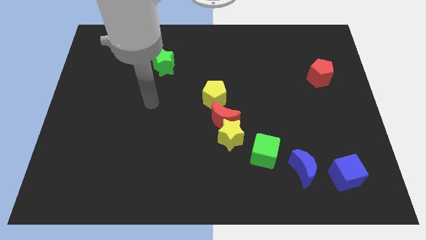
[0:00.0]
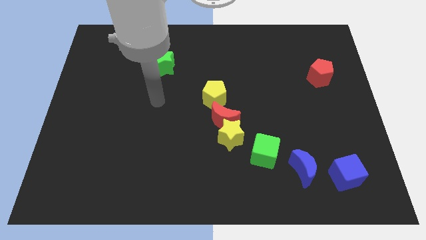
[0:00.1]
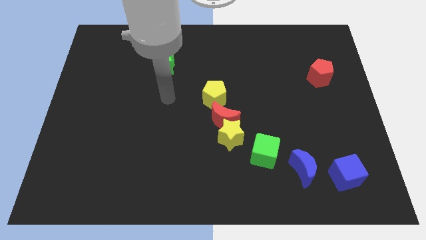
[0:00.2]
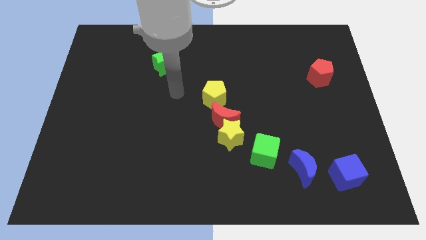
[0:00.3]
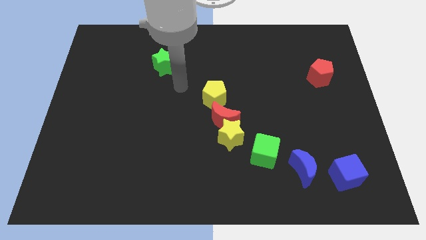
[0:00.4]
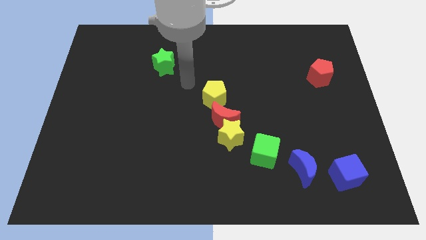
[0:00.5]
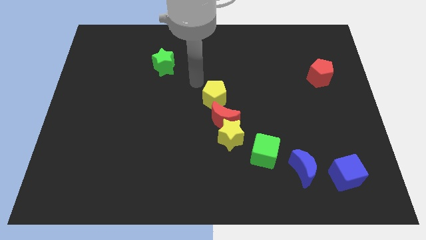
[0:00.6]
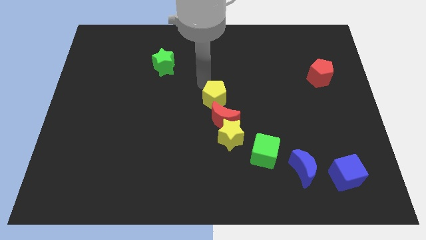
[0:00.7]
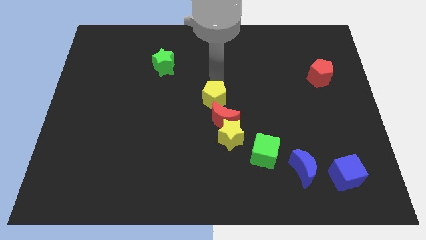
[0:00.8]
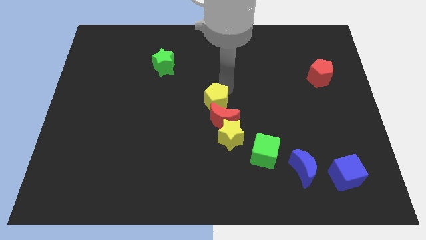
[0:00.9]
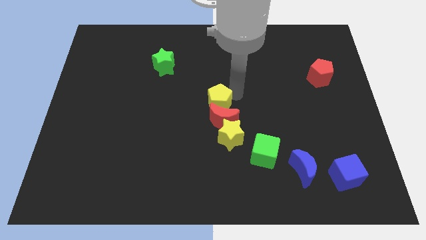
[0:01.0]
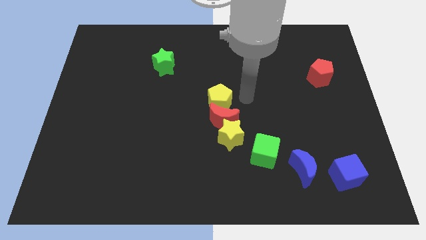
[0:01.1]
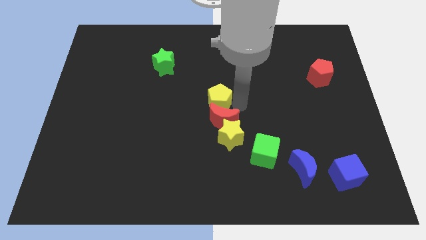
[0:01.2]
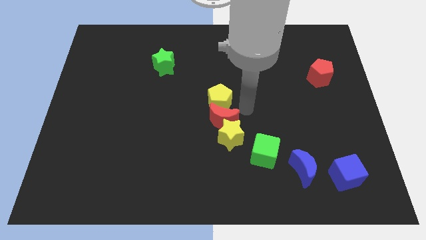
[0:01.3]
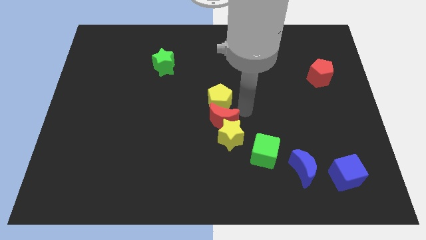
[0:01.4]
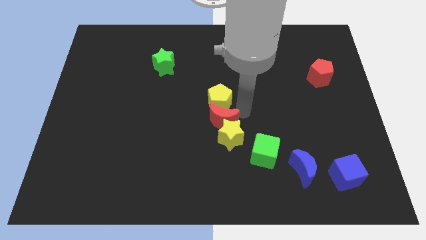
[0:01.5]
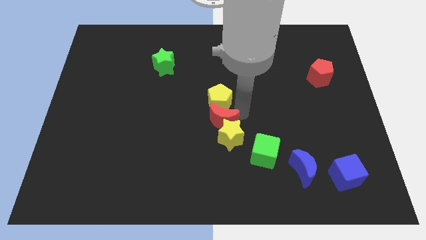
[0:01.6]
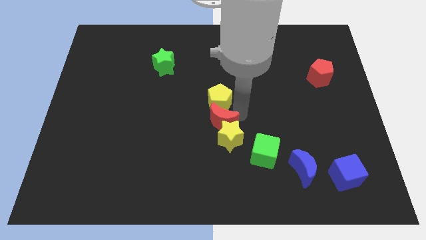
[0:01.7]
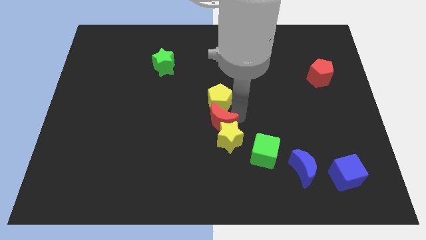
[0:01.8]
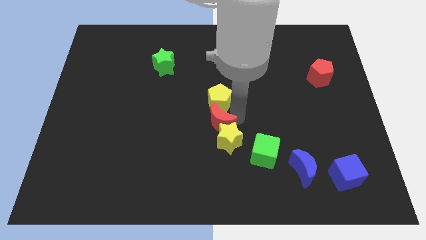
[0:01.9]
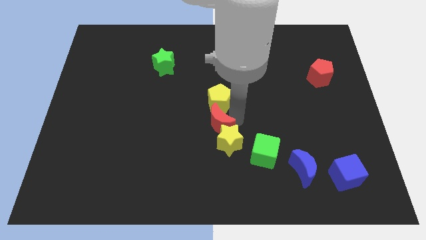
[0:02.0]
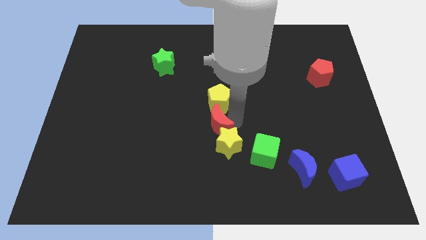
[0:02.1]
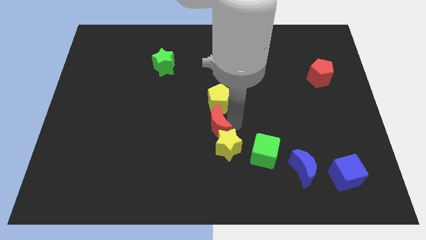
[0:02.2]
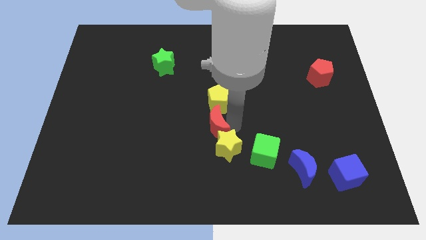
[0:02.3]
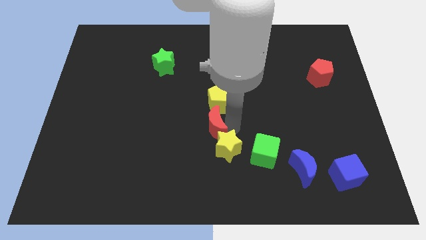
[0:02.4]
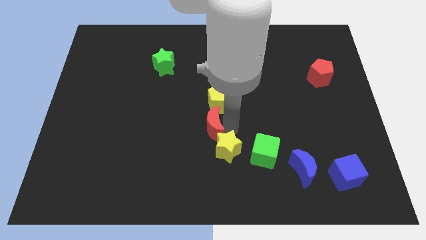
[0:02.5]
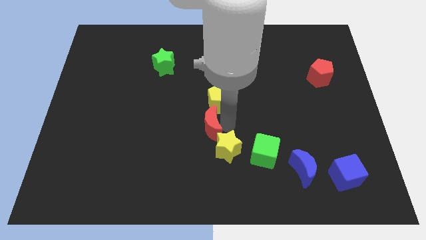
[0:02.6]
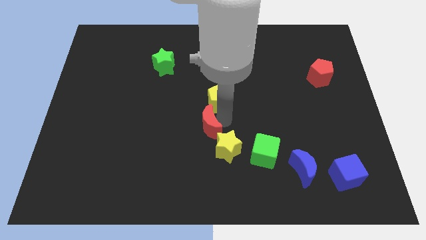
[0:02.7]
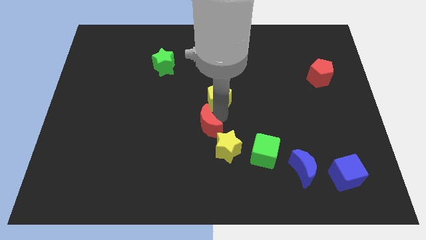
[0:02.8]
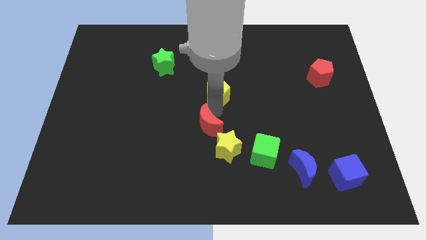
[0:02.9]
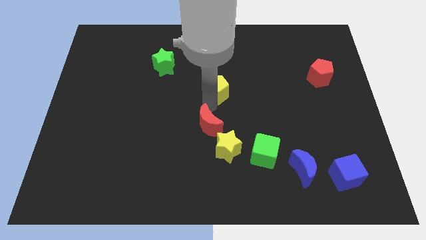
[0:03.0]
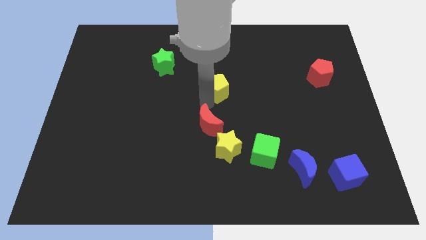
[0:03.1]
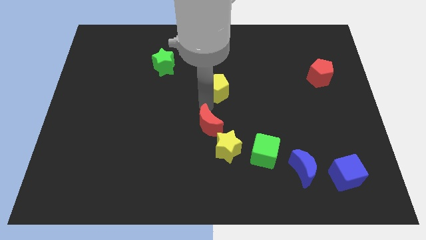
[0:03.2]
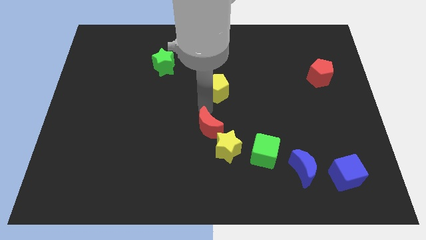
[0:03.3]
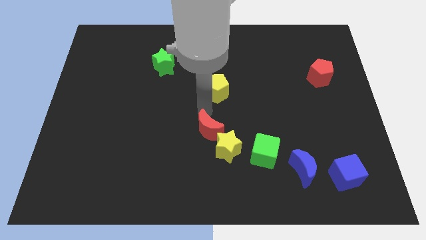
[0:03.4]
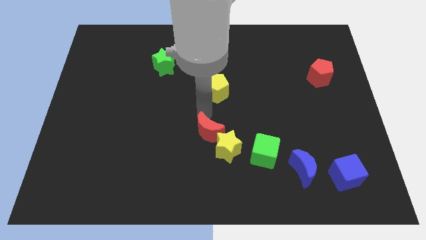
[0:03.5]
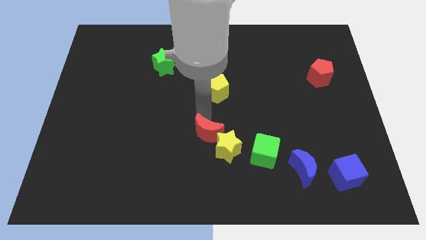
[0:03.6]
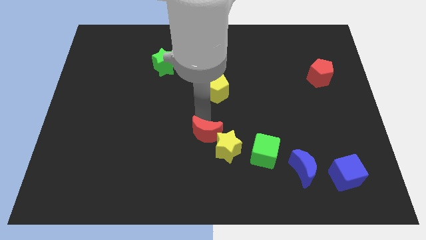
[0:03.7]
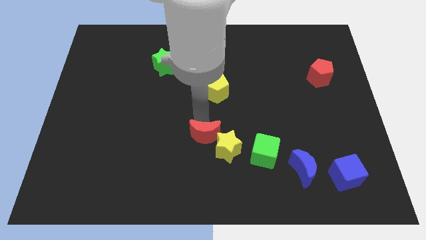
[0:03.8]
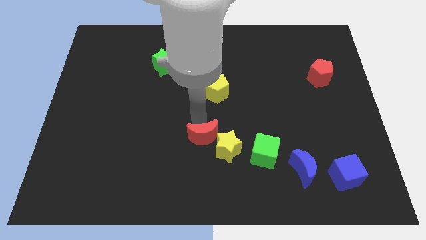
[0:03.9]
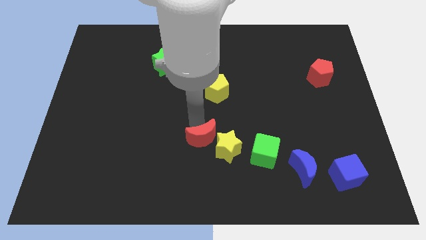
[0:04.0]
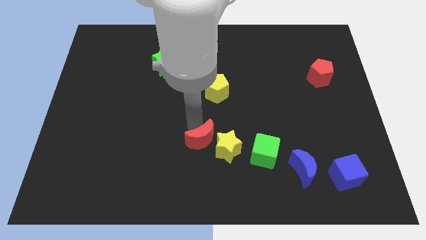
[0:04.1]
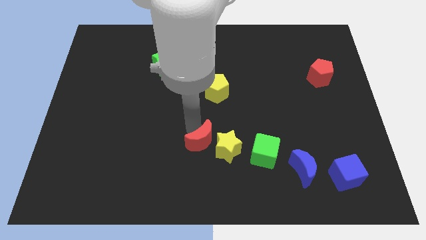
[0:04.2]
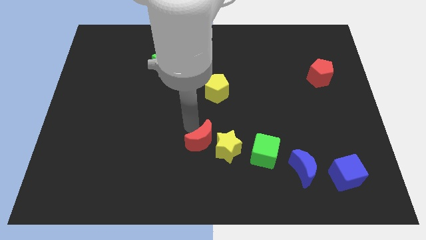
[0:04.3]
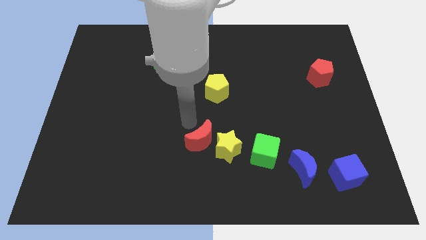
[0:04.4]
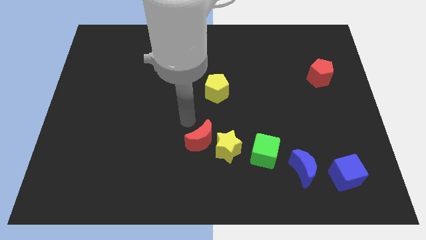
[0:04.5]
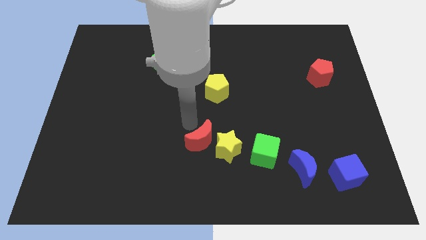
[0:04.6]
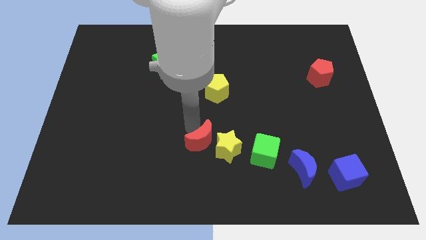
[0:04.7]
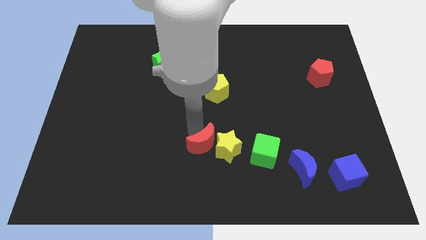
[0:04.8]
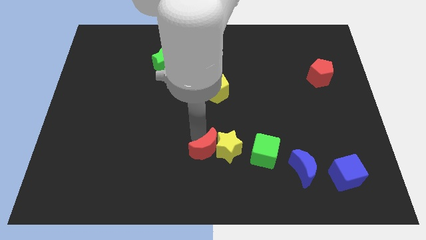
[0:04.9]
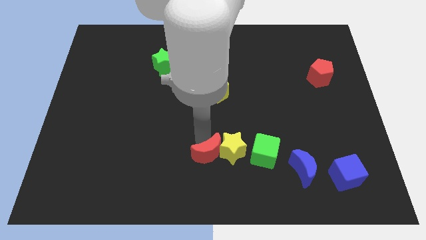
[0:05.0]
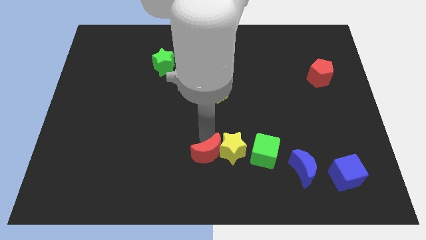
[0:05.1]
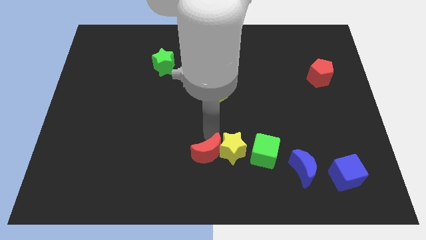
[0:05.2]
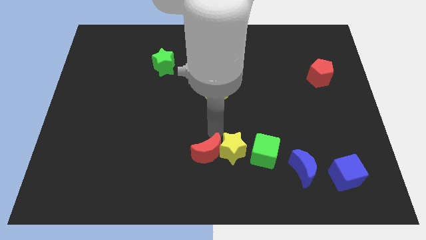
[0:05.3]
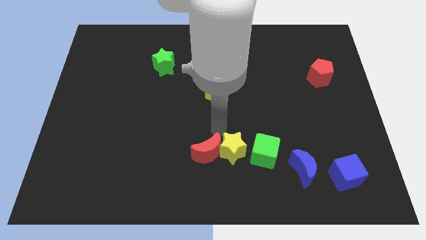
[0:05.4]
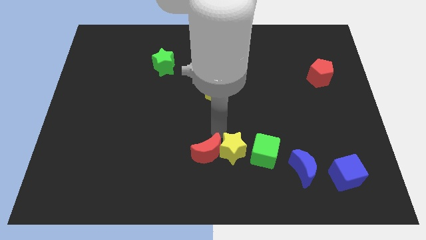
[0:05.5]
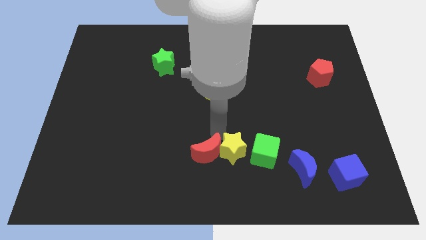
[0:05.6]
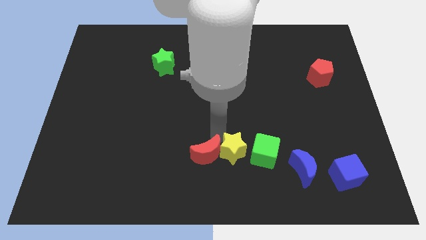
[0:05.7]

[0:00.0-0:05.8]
pull the red moon apart from the yellow star and yellow pentagon

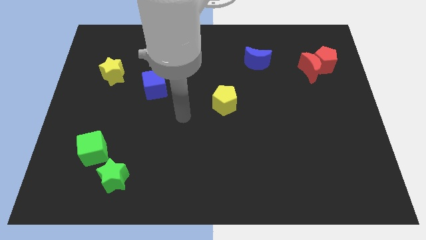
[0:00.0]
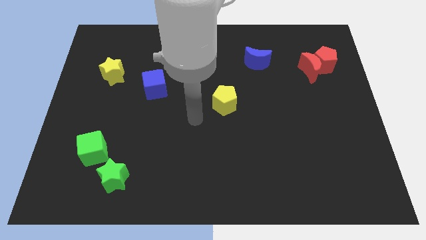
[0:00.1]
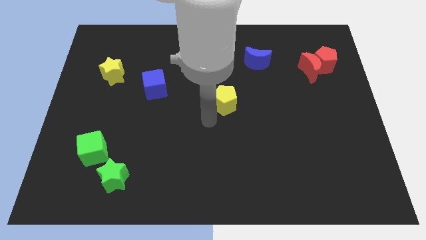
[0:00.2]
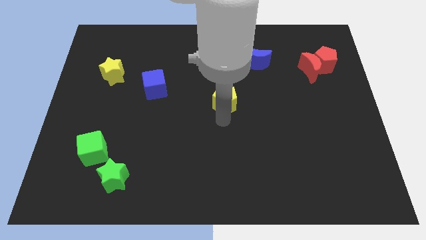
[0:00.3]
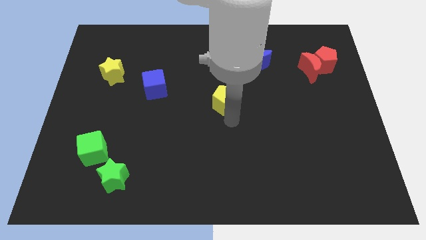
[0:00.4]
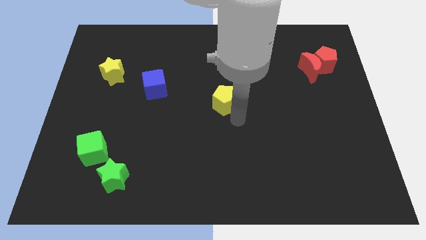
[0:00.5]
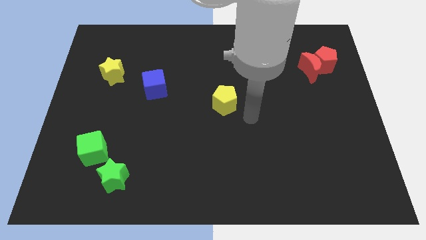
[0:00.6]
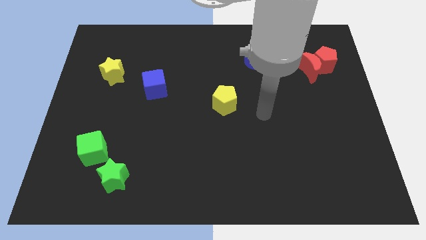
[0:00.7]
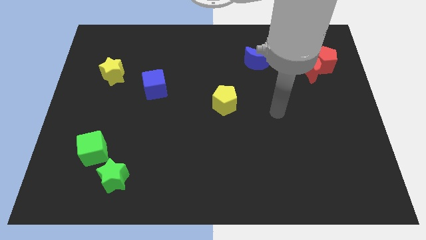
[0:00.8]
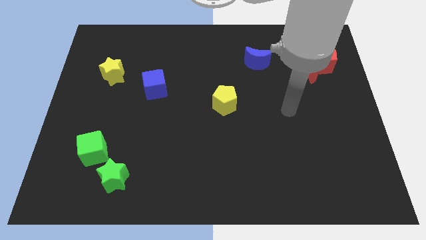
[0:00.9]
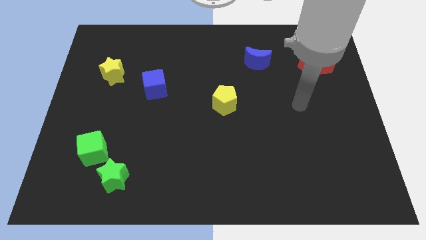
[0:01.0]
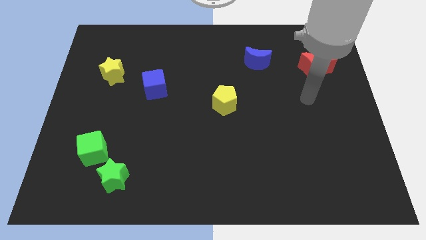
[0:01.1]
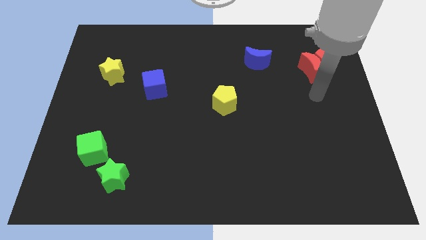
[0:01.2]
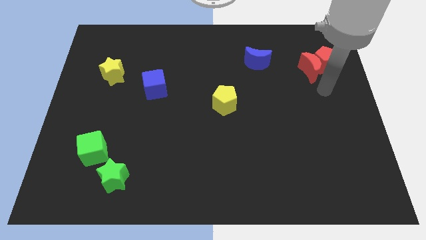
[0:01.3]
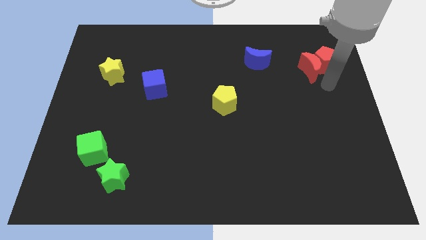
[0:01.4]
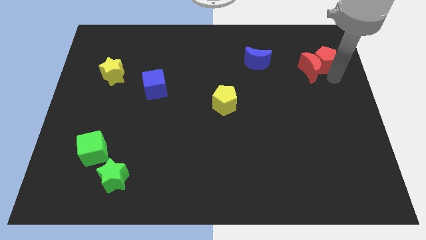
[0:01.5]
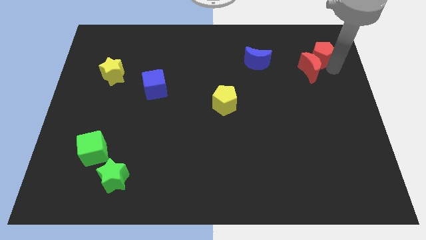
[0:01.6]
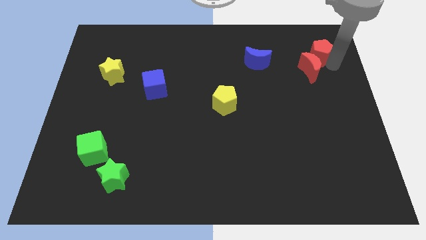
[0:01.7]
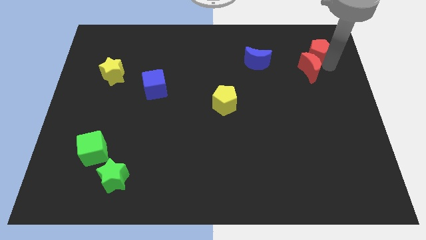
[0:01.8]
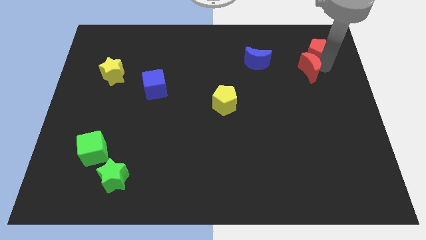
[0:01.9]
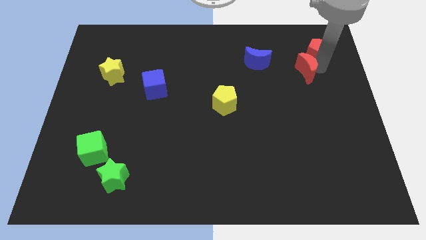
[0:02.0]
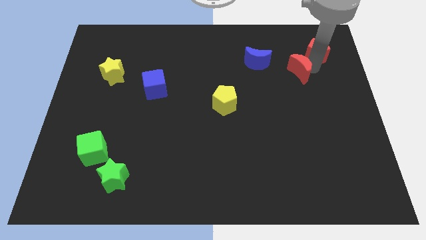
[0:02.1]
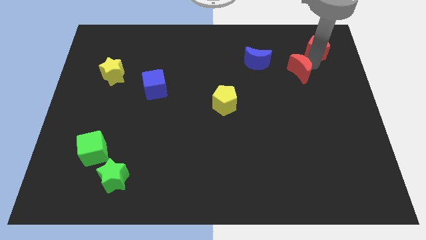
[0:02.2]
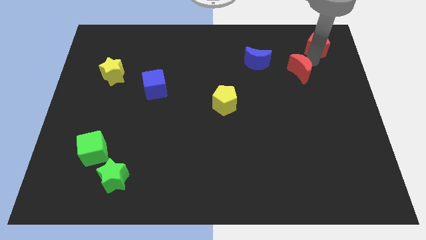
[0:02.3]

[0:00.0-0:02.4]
pull the red moon apart from the red pentagon

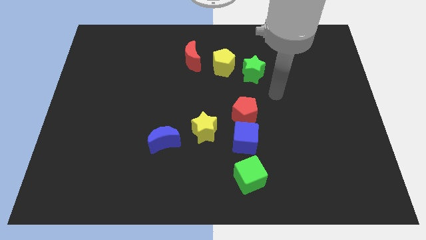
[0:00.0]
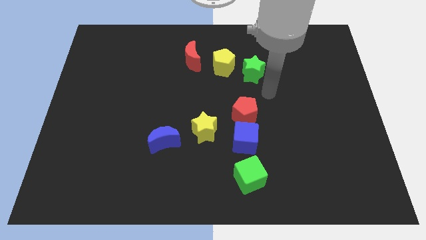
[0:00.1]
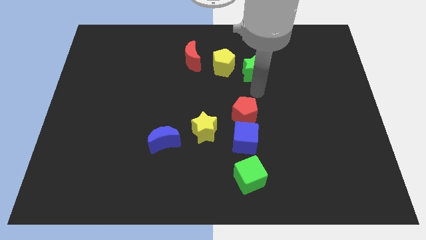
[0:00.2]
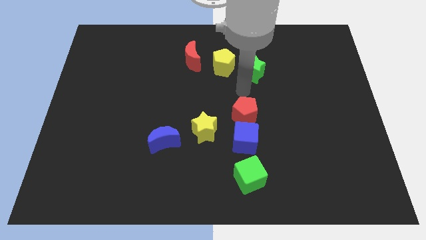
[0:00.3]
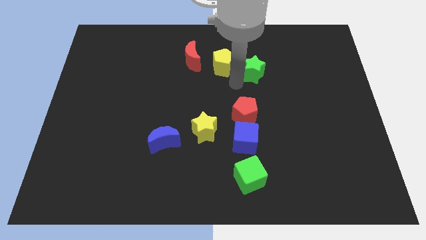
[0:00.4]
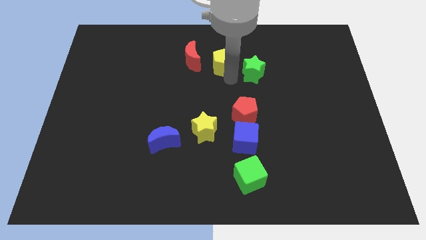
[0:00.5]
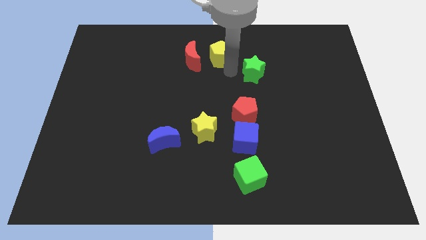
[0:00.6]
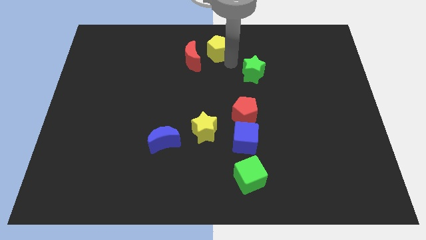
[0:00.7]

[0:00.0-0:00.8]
separate the green star from the yellow pentagon

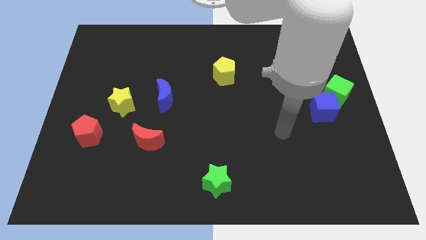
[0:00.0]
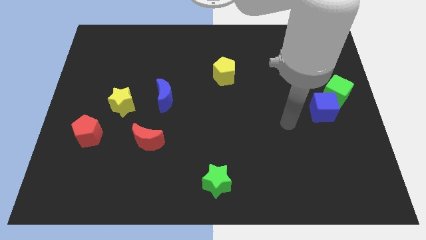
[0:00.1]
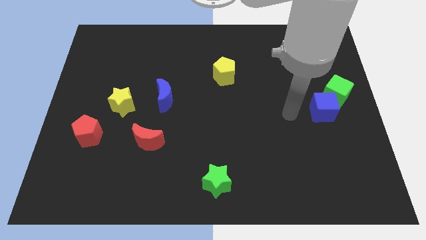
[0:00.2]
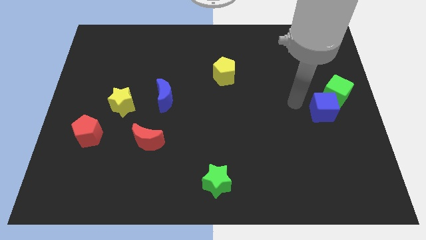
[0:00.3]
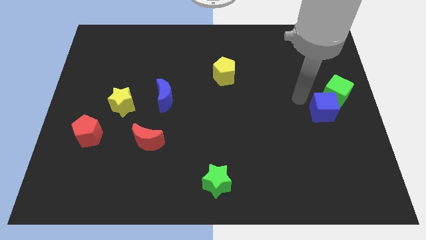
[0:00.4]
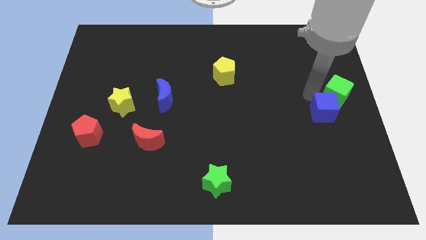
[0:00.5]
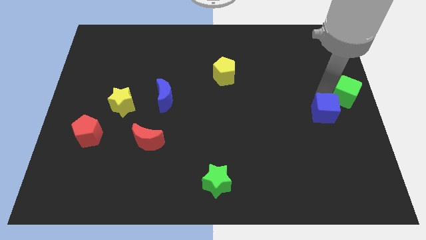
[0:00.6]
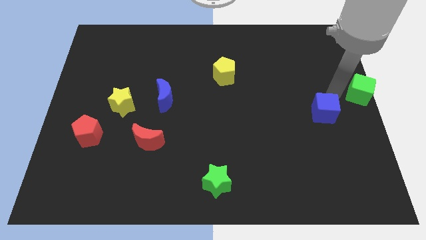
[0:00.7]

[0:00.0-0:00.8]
pull the blue cube apart from the green cube
